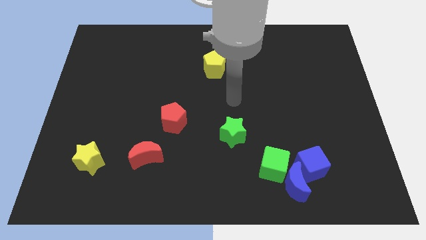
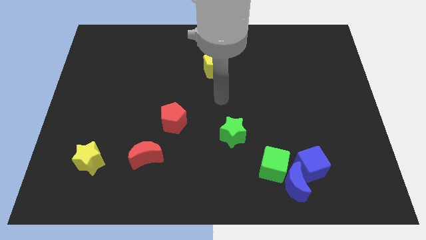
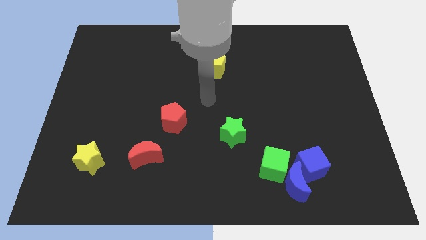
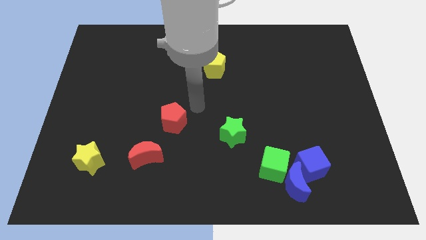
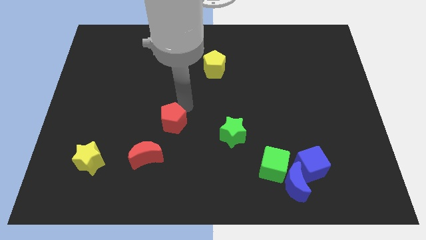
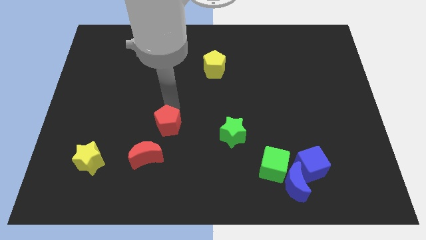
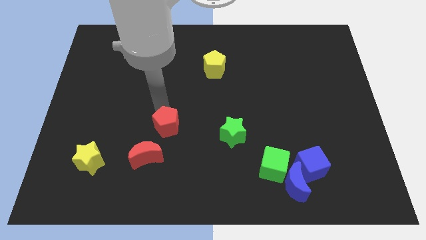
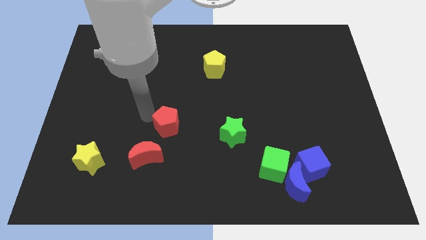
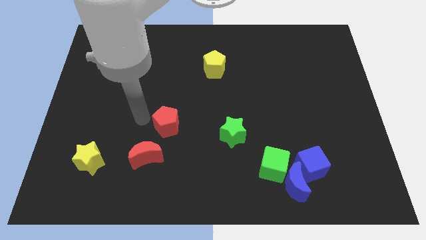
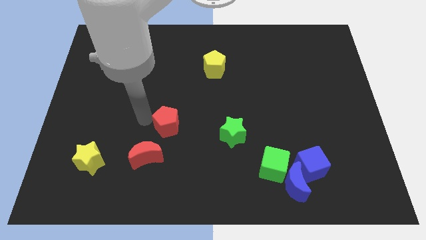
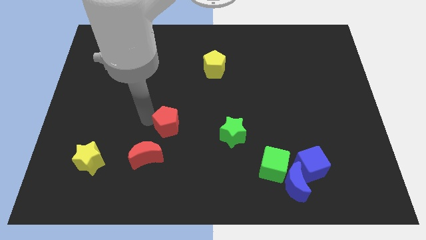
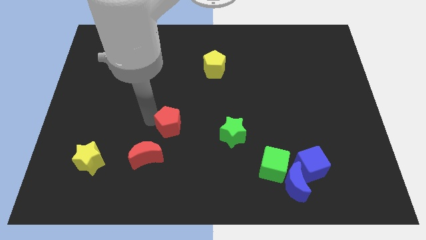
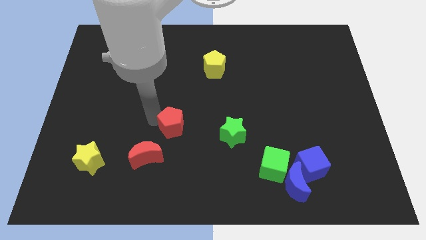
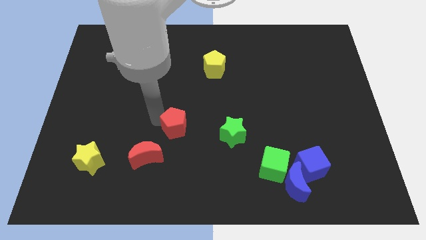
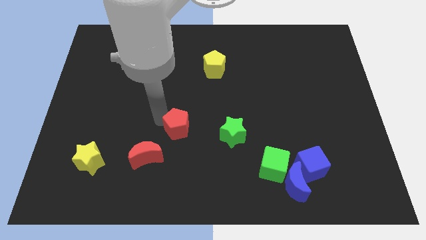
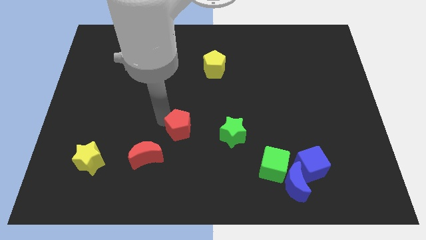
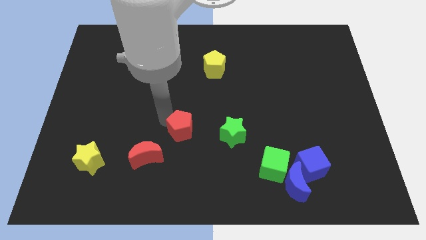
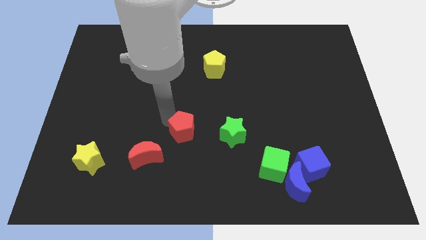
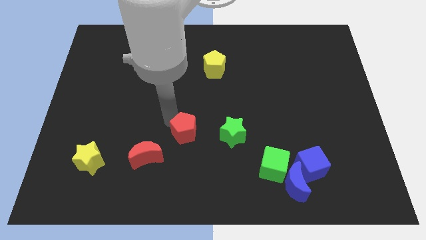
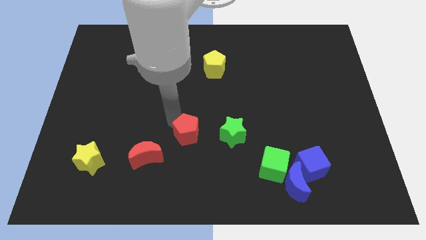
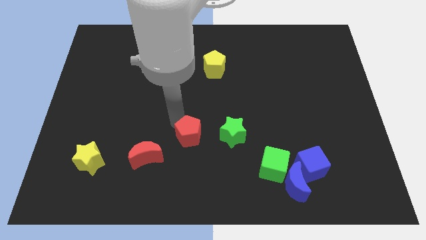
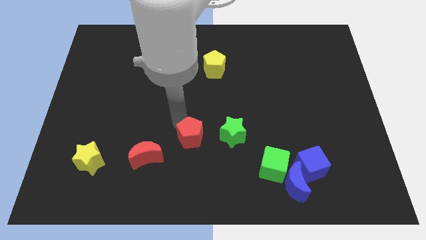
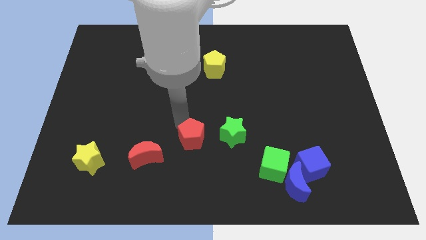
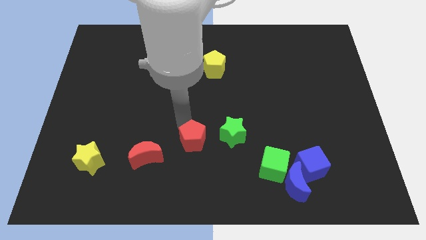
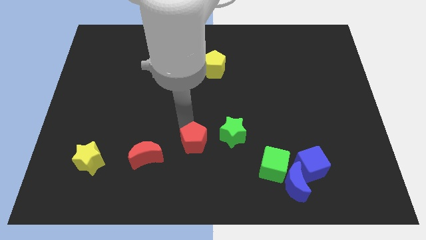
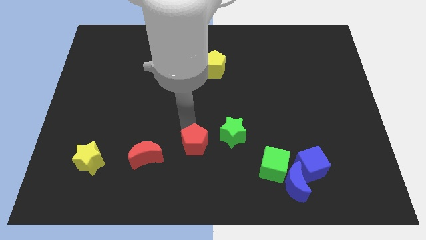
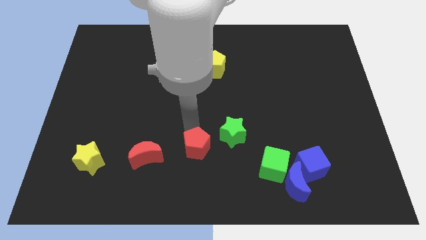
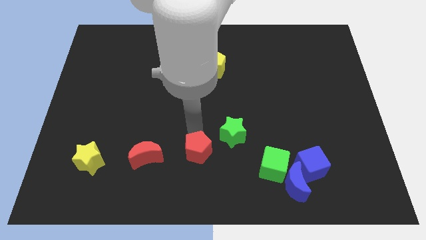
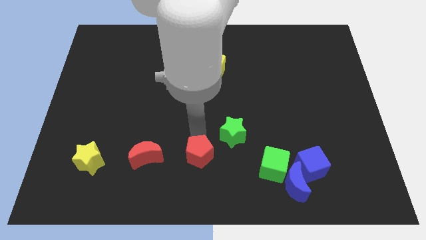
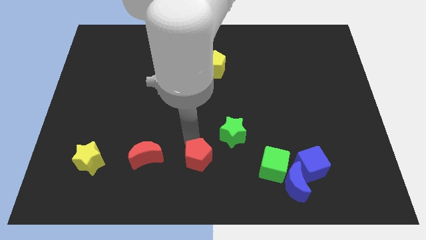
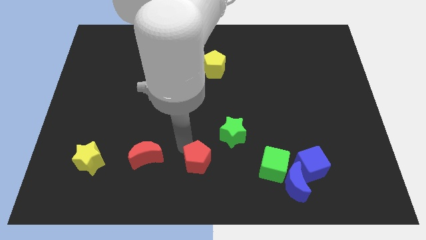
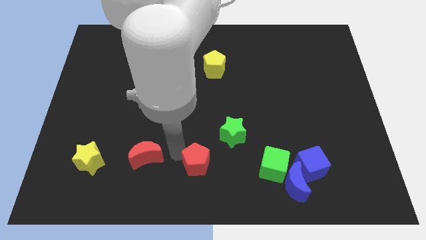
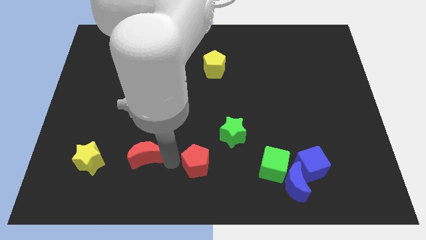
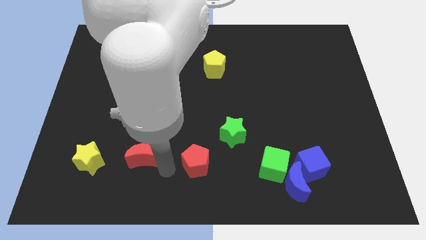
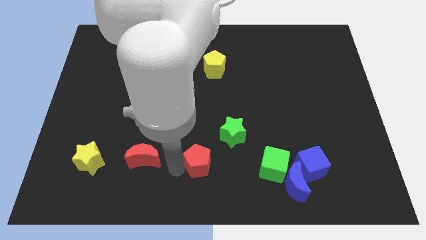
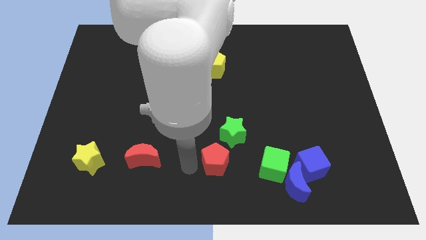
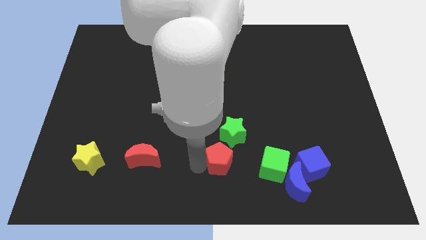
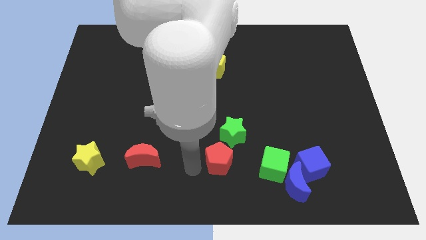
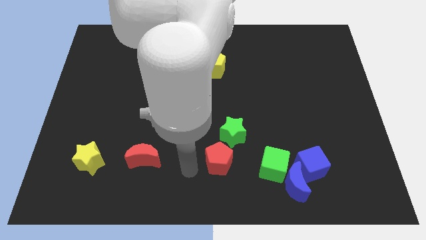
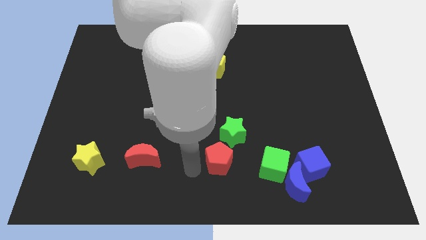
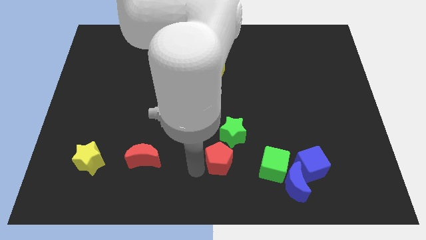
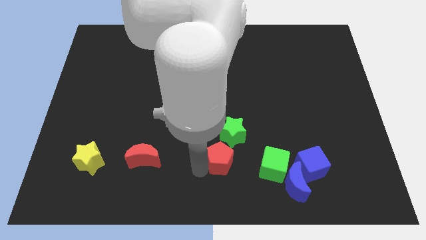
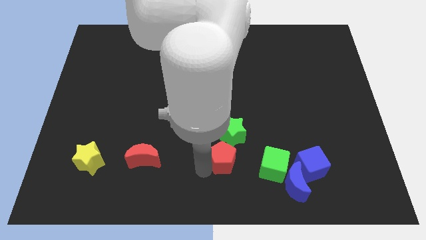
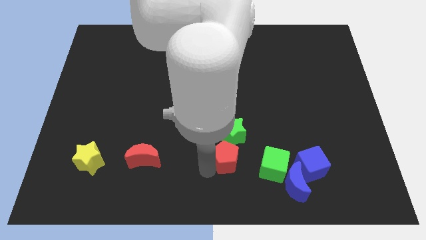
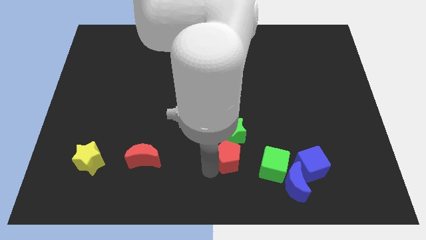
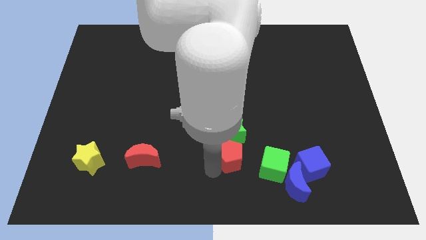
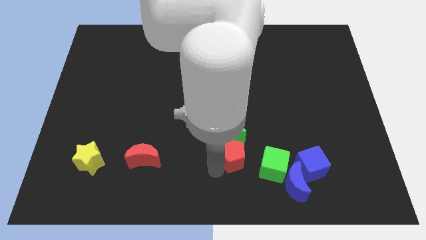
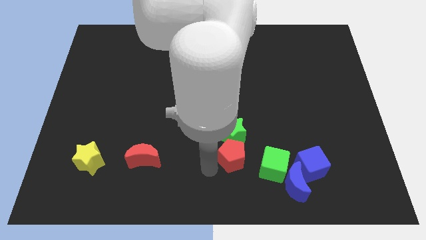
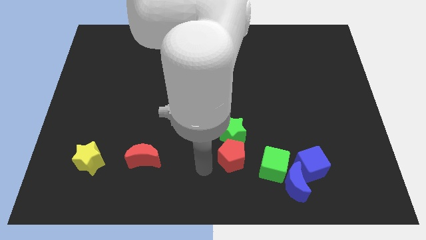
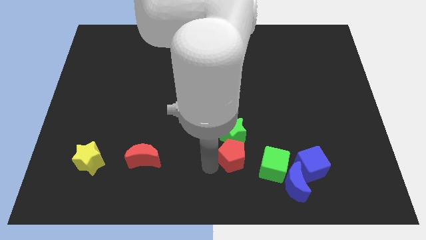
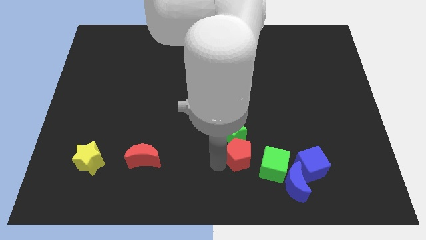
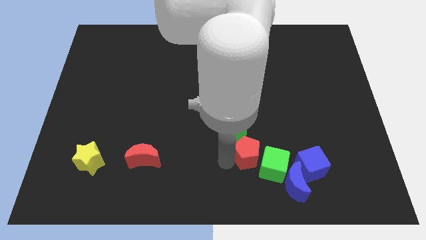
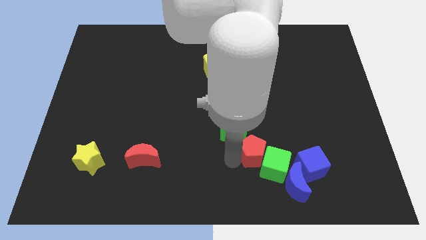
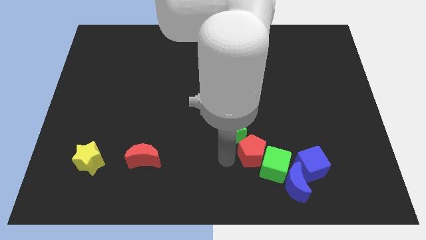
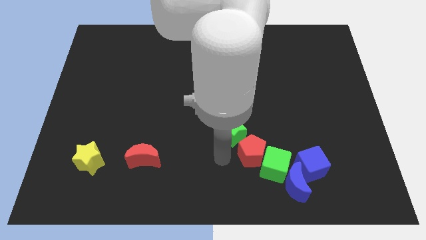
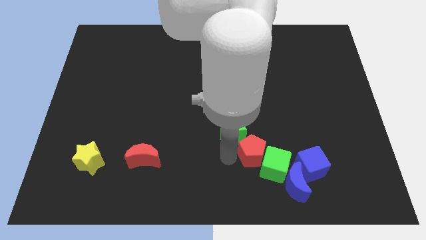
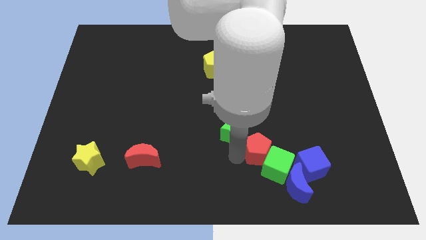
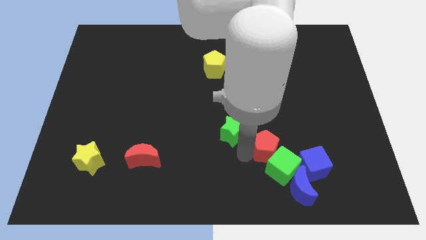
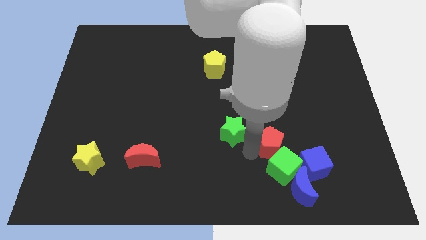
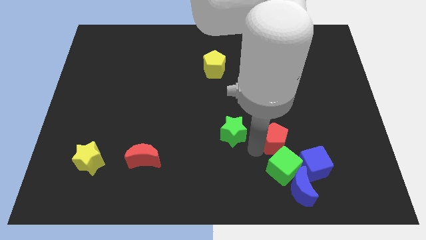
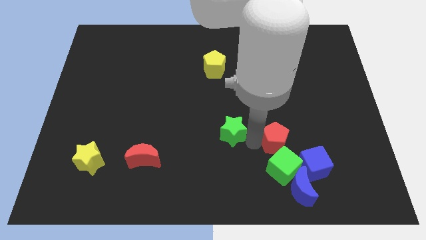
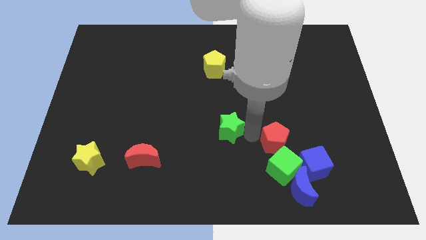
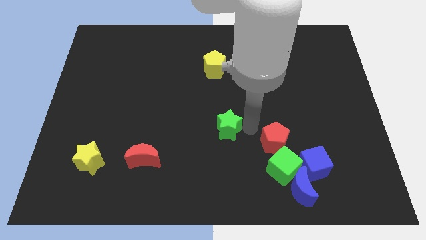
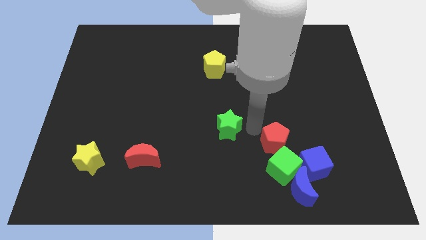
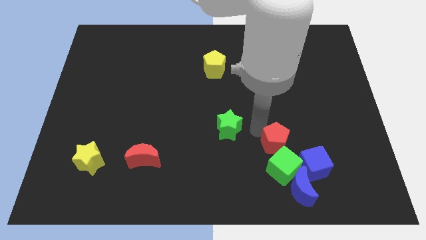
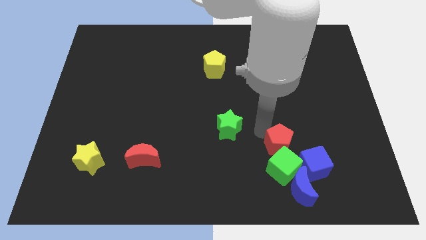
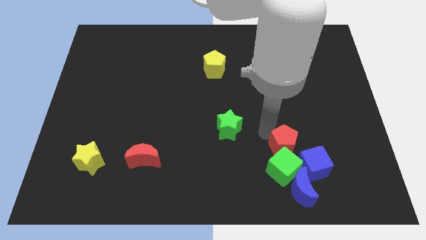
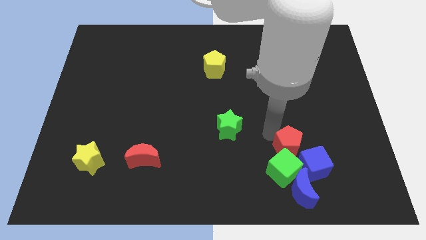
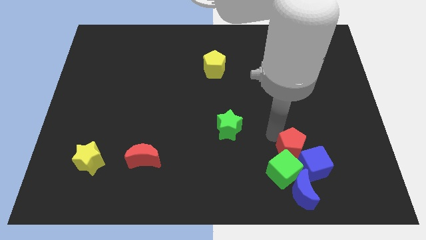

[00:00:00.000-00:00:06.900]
push the red pentagon to the blue cube
